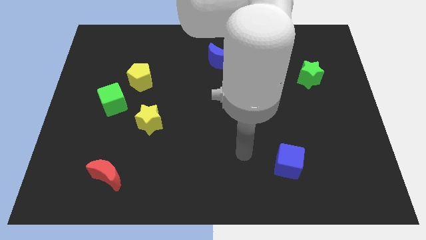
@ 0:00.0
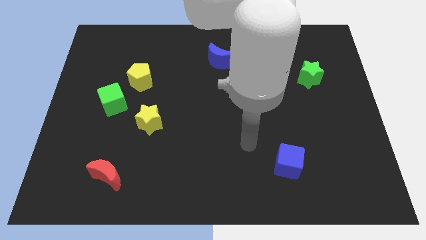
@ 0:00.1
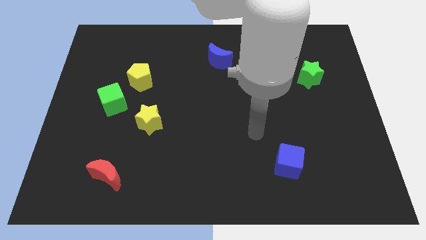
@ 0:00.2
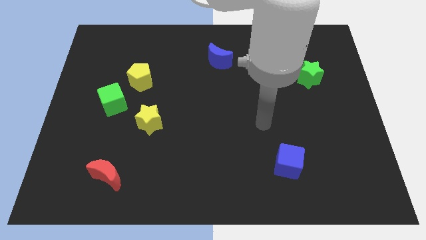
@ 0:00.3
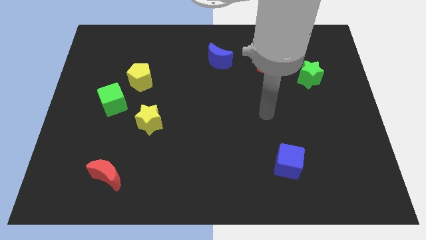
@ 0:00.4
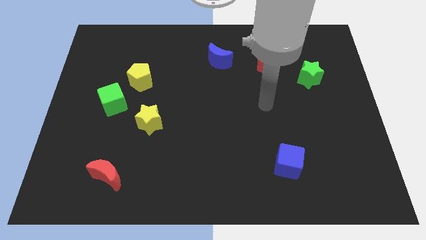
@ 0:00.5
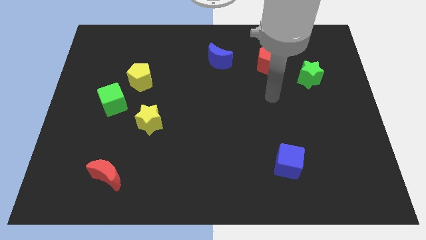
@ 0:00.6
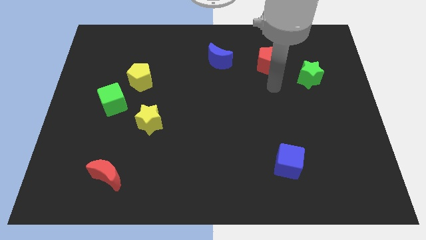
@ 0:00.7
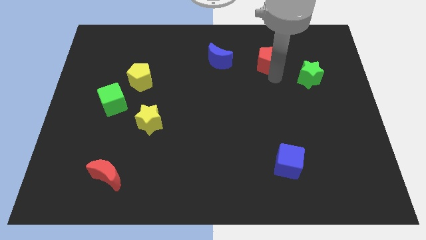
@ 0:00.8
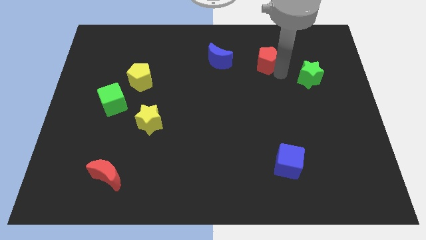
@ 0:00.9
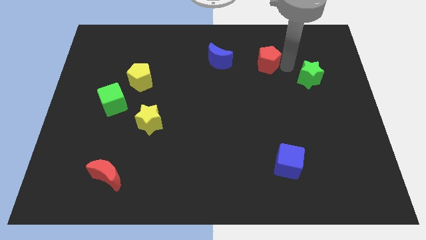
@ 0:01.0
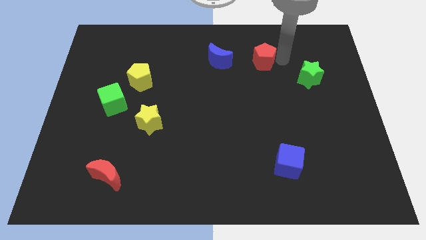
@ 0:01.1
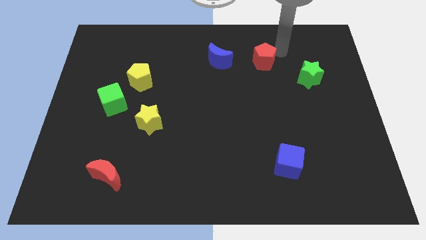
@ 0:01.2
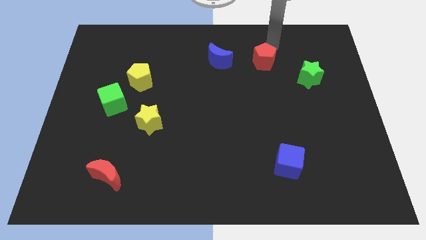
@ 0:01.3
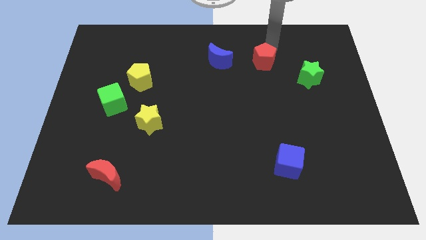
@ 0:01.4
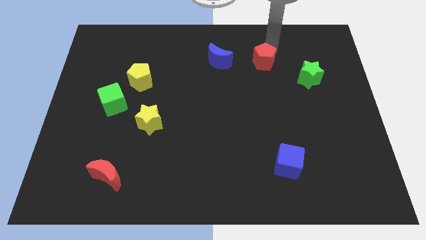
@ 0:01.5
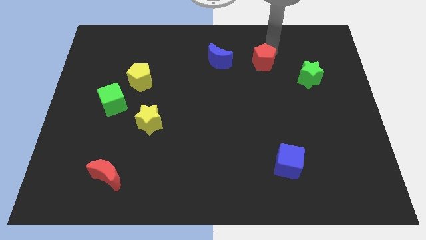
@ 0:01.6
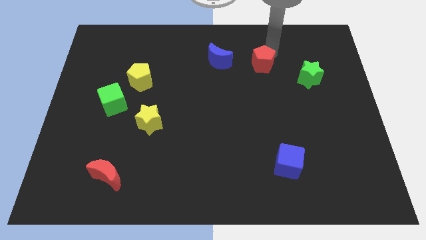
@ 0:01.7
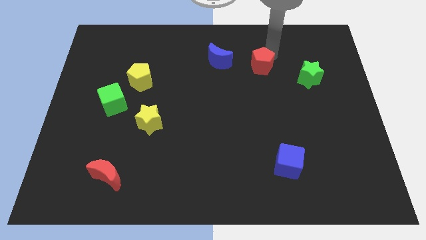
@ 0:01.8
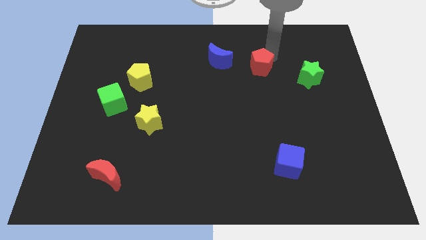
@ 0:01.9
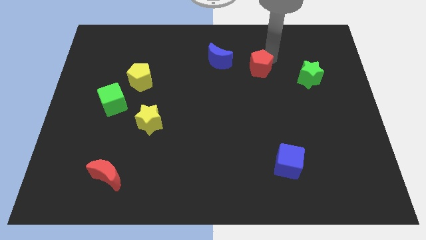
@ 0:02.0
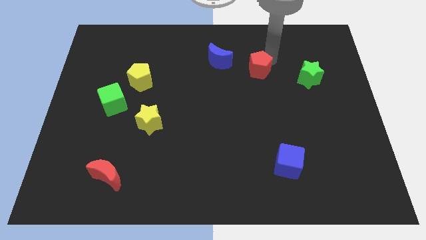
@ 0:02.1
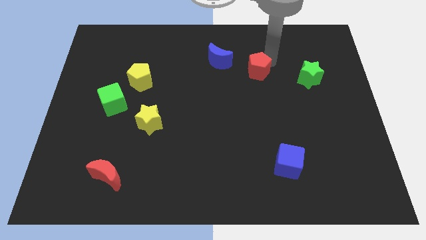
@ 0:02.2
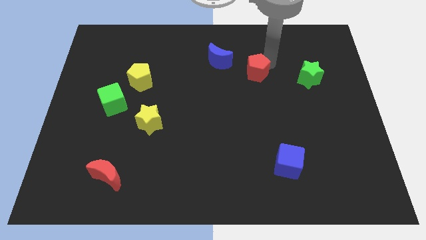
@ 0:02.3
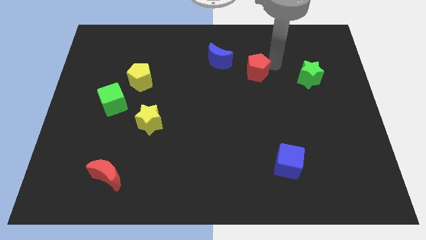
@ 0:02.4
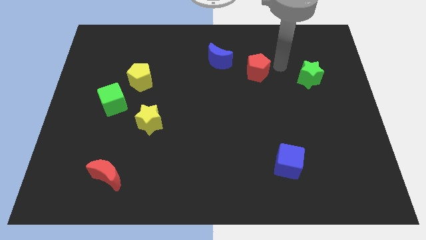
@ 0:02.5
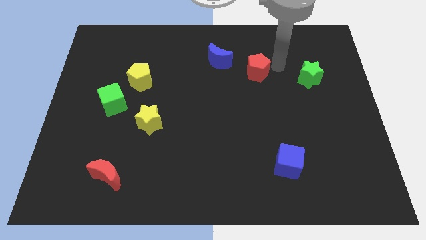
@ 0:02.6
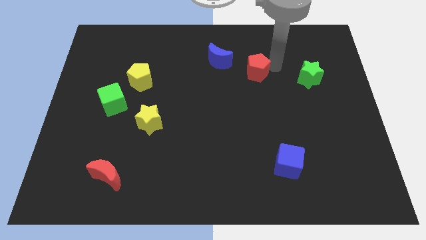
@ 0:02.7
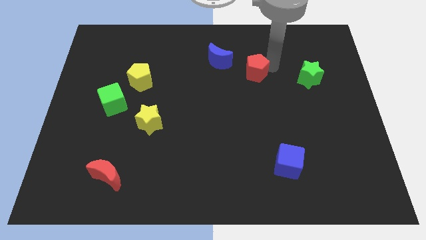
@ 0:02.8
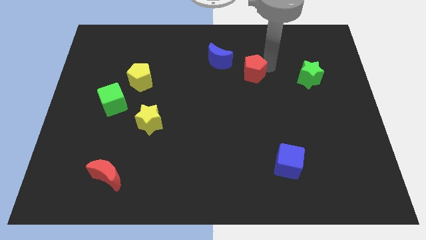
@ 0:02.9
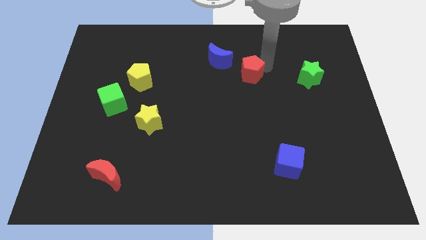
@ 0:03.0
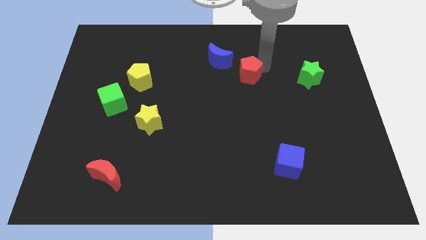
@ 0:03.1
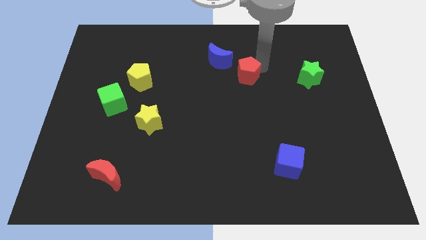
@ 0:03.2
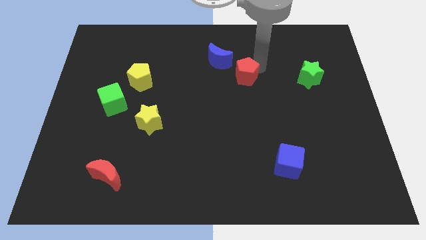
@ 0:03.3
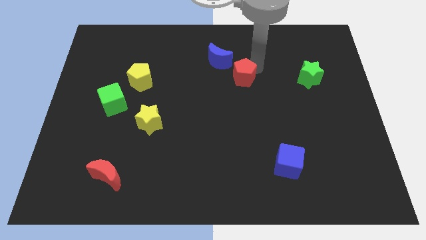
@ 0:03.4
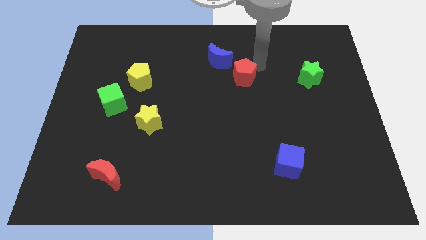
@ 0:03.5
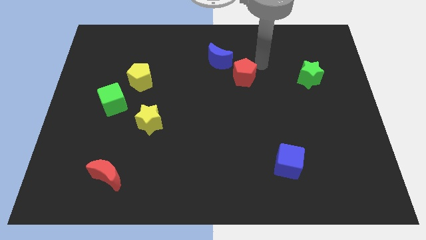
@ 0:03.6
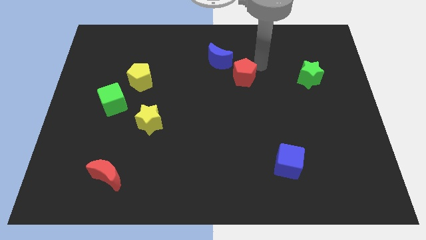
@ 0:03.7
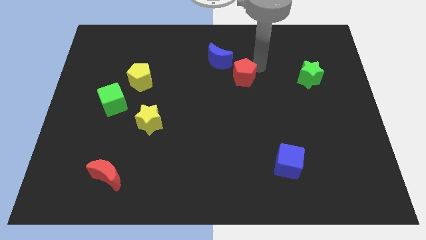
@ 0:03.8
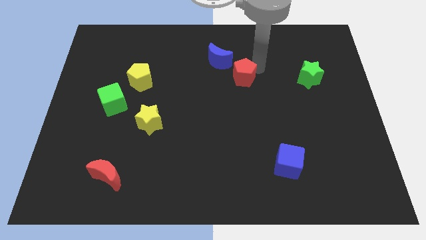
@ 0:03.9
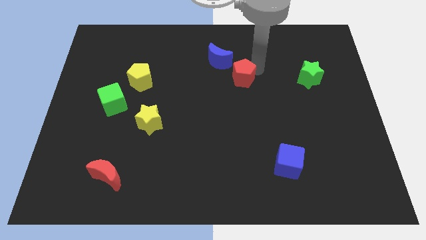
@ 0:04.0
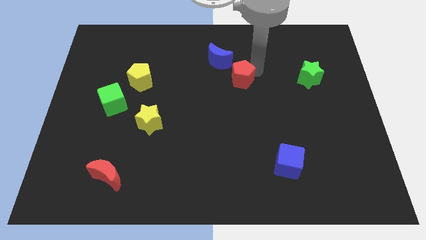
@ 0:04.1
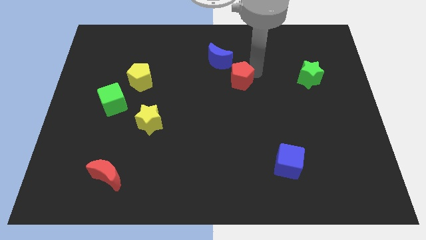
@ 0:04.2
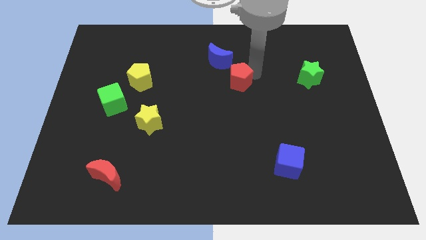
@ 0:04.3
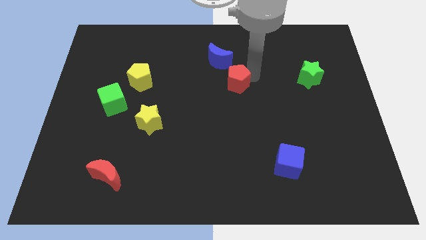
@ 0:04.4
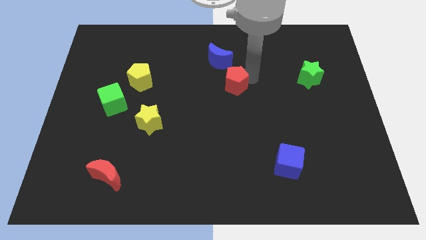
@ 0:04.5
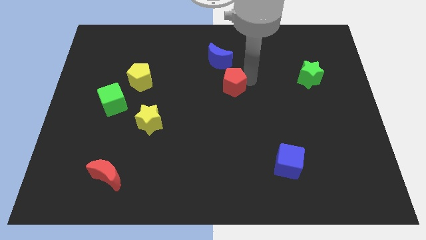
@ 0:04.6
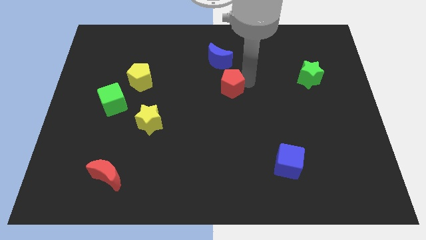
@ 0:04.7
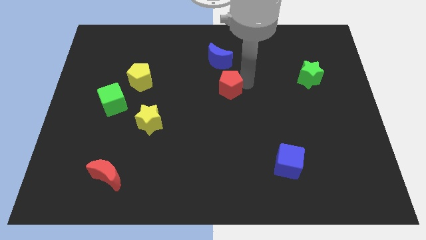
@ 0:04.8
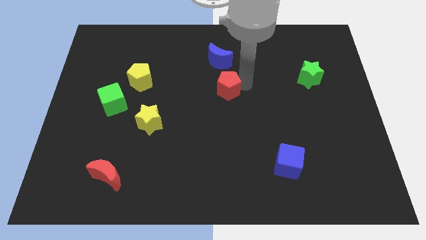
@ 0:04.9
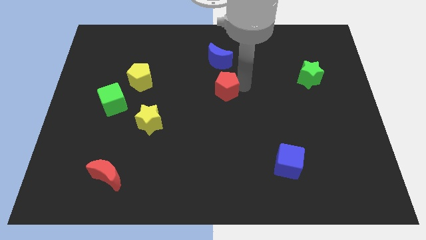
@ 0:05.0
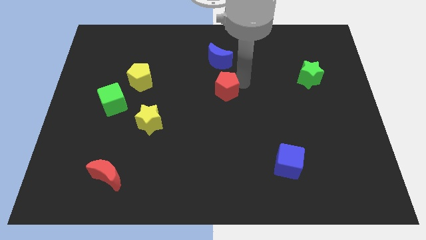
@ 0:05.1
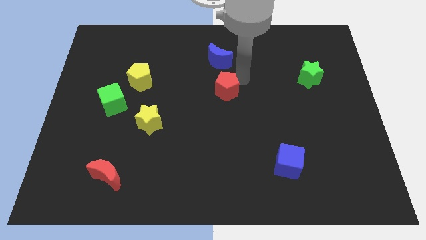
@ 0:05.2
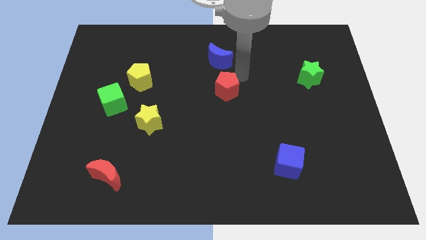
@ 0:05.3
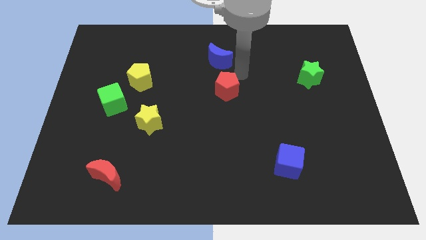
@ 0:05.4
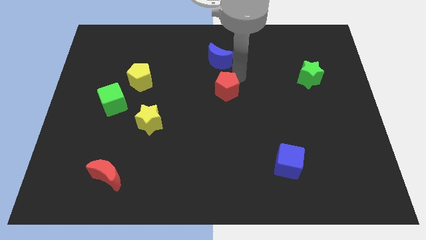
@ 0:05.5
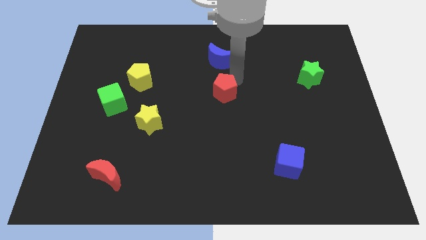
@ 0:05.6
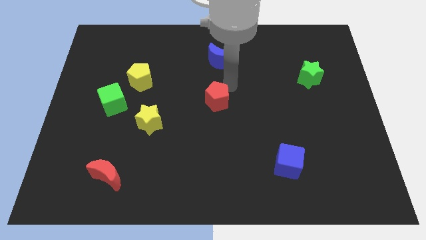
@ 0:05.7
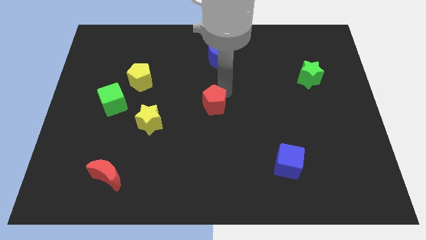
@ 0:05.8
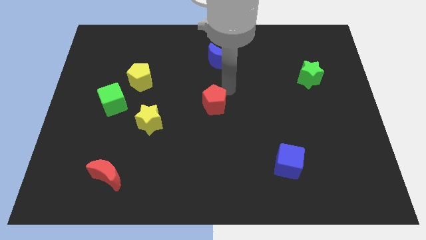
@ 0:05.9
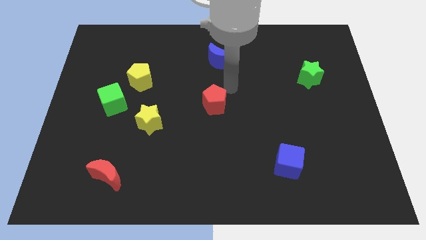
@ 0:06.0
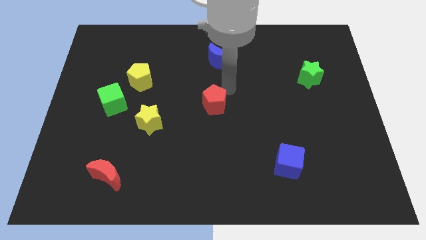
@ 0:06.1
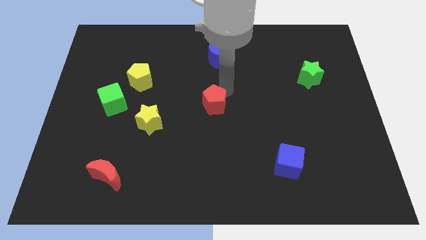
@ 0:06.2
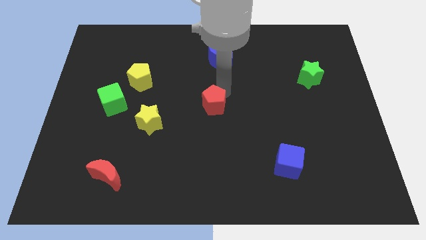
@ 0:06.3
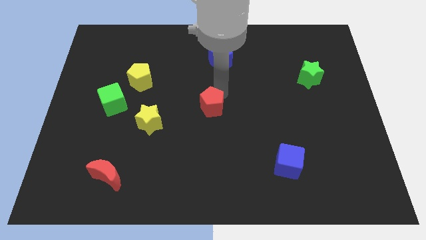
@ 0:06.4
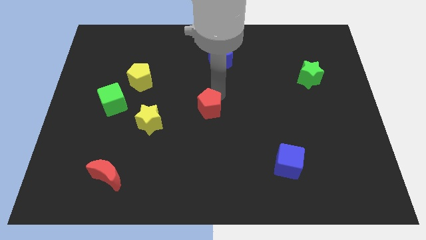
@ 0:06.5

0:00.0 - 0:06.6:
push the red pentagon just right of the yellow star
